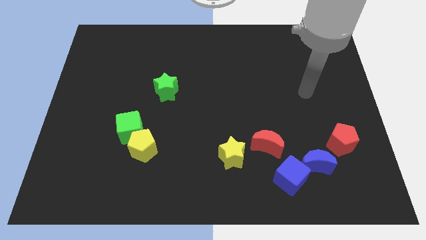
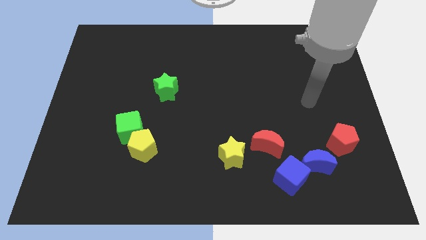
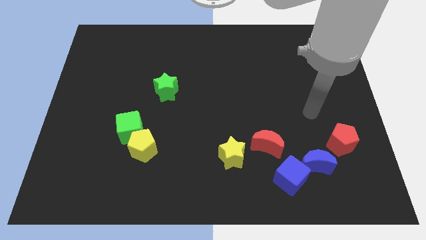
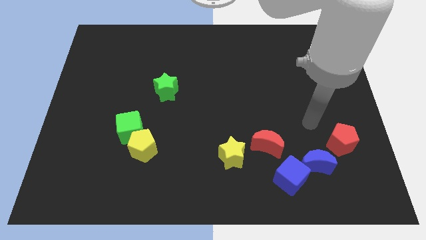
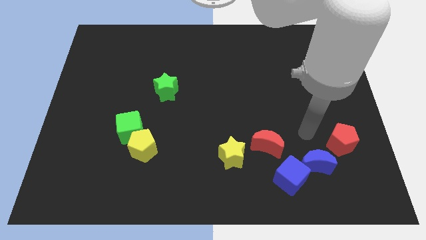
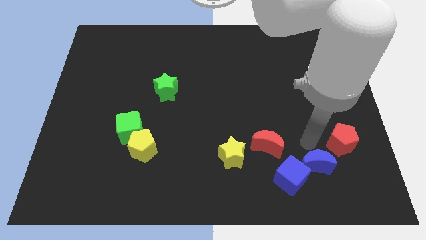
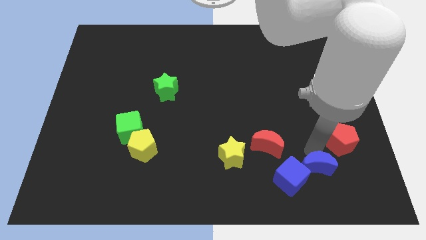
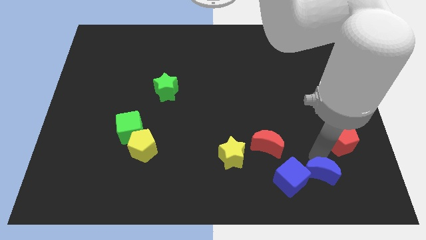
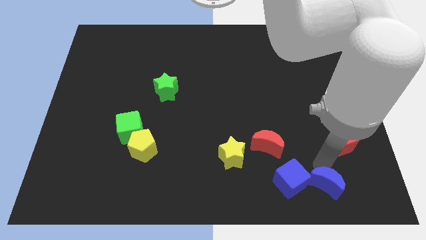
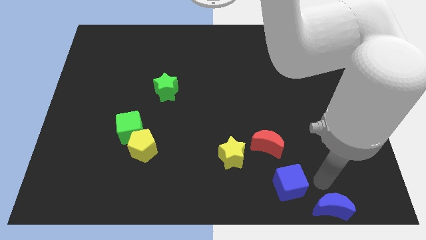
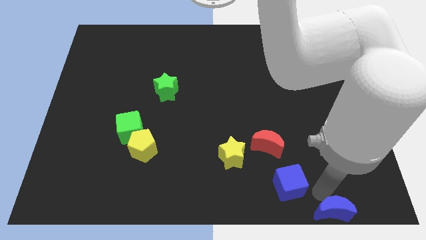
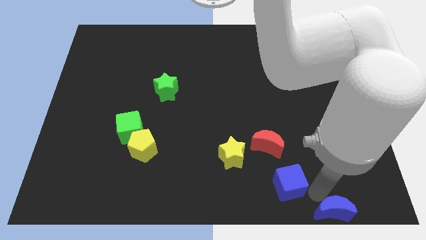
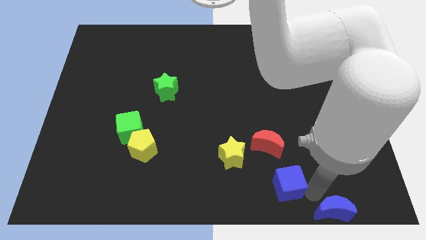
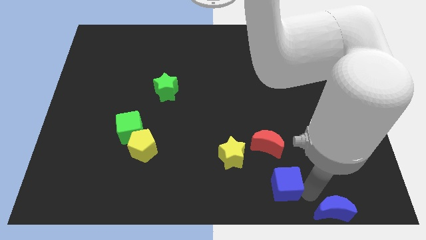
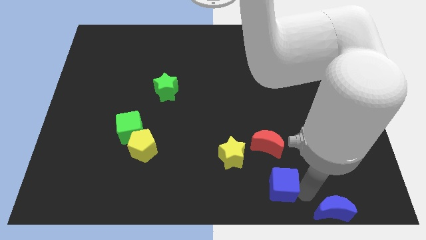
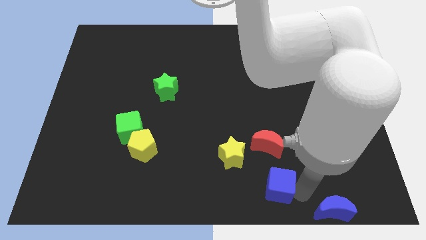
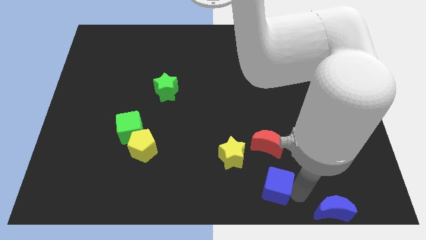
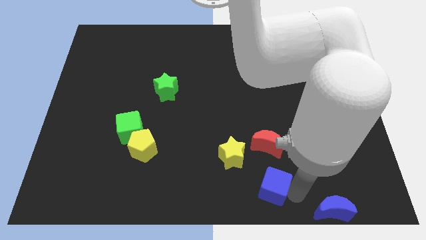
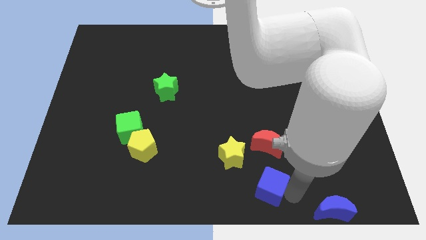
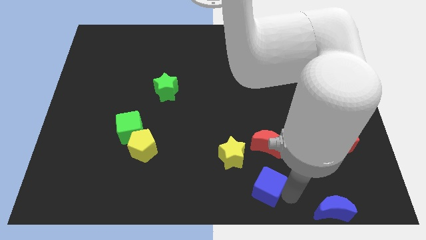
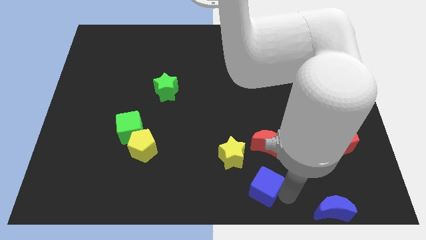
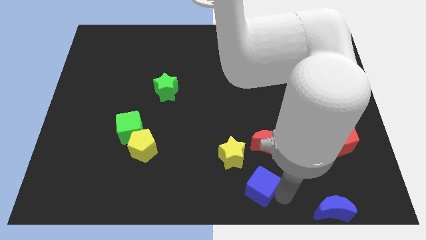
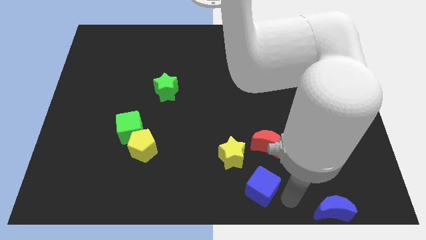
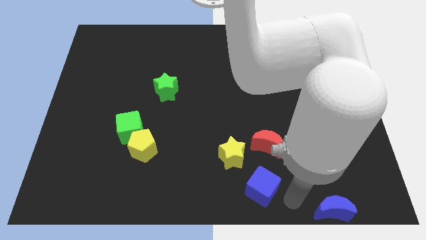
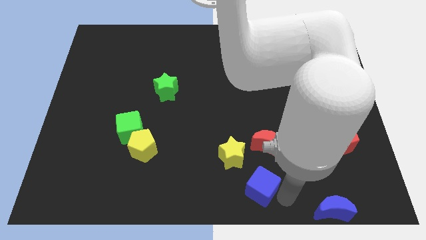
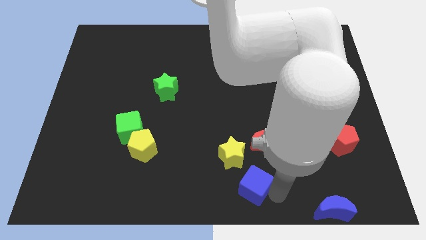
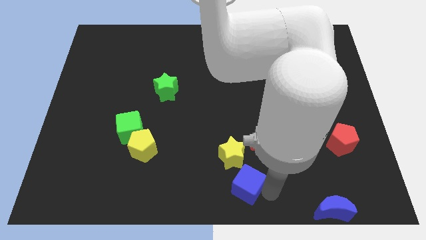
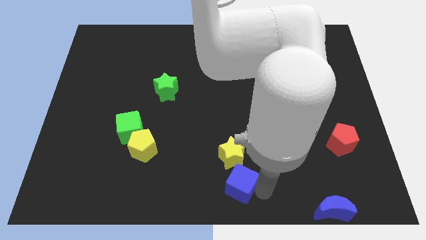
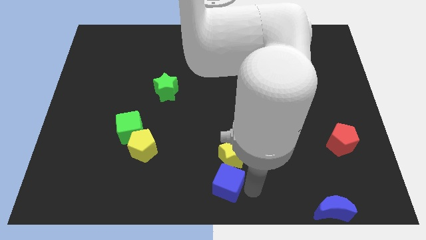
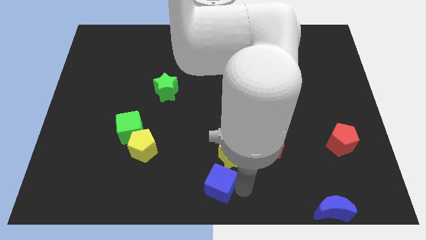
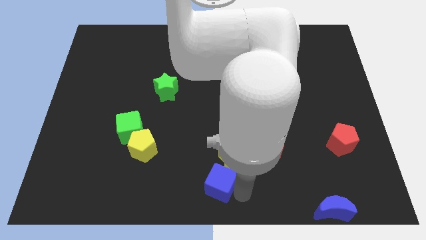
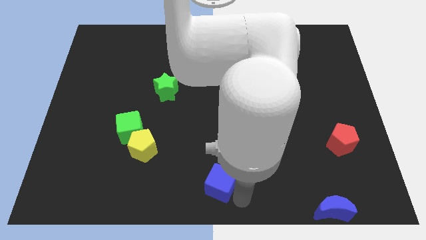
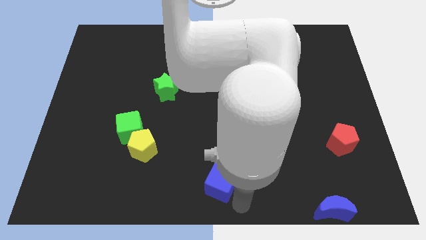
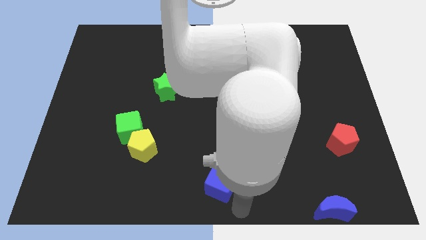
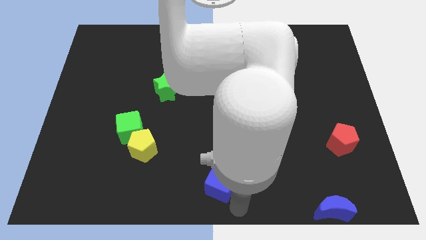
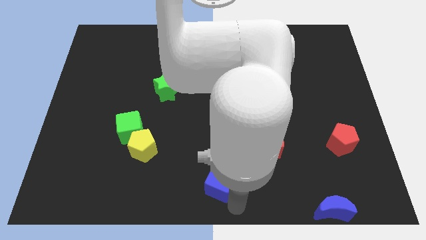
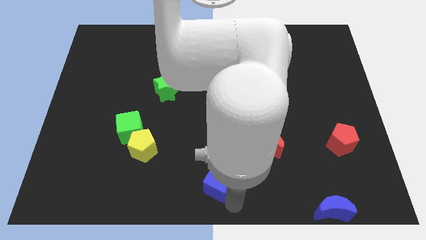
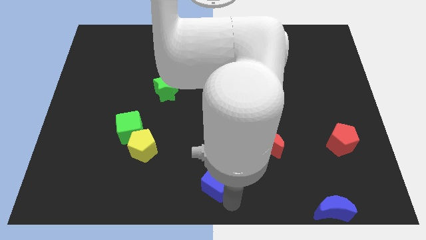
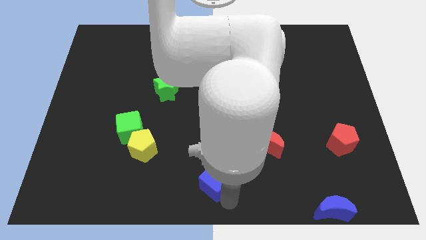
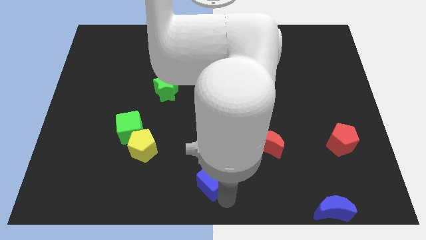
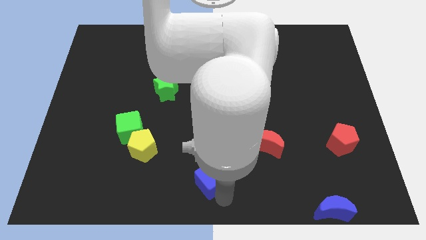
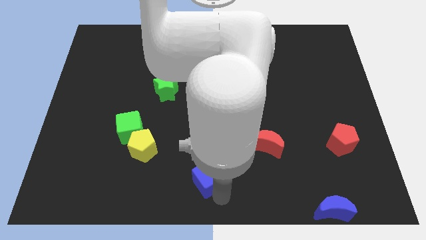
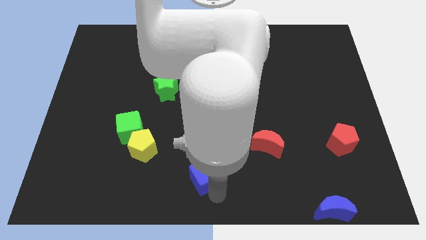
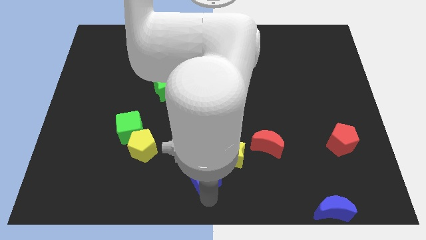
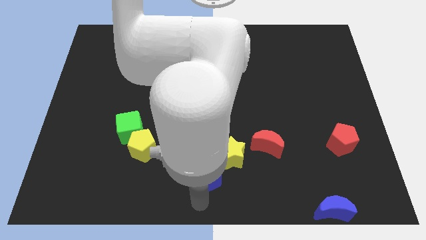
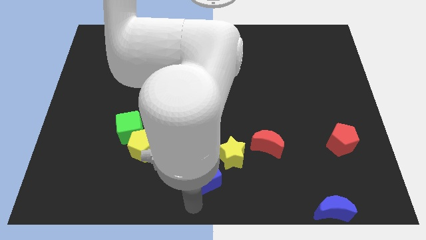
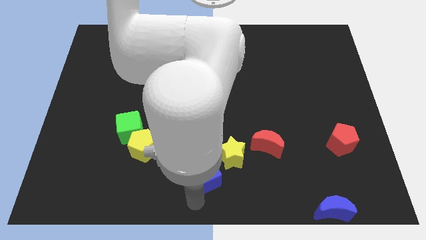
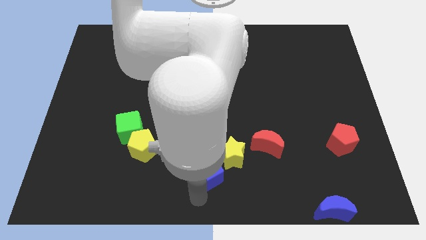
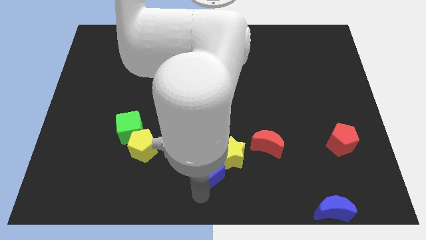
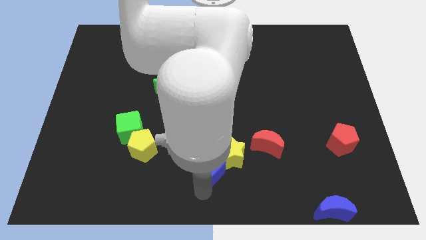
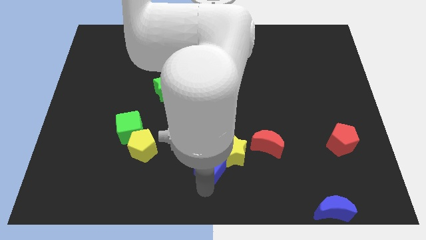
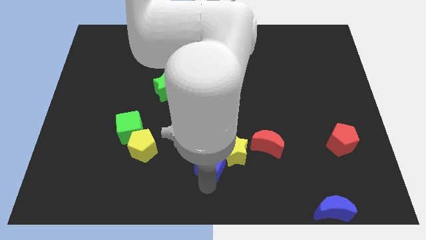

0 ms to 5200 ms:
move the blue cube just left of the red moon

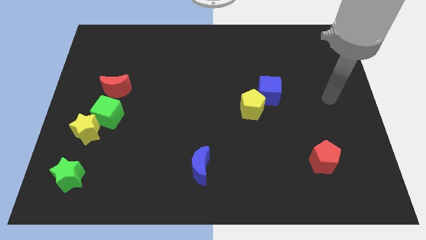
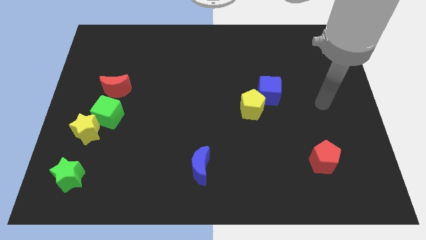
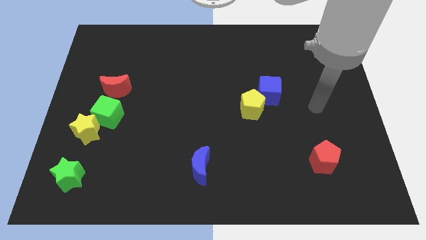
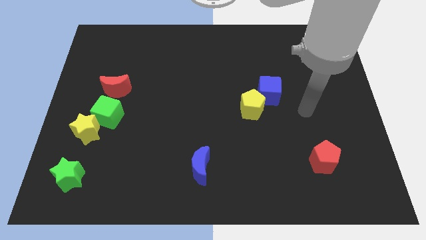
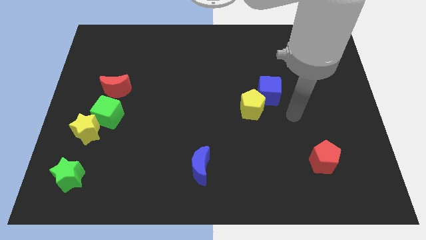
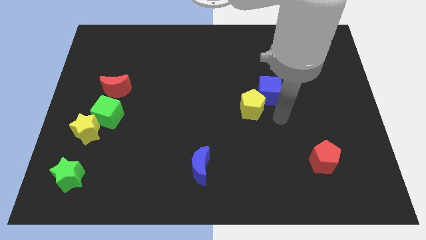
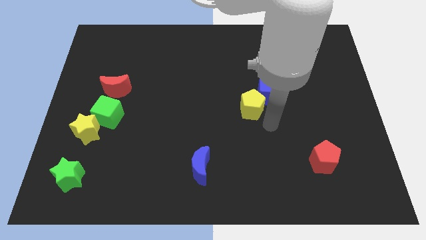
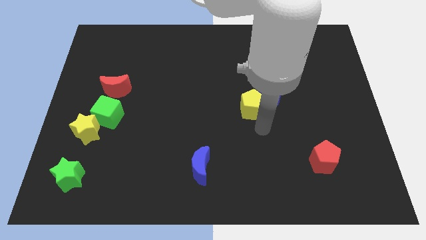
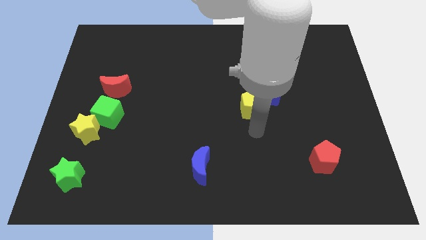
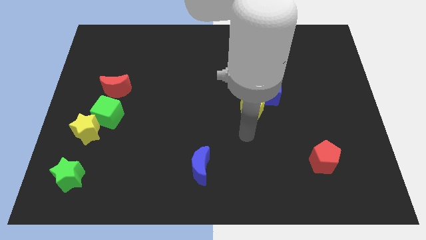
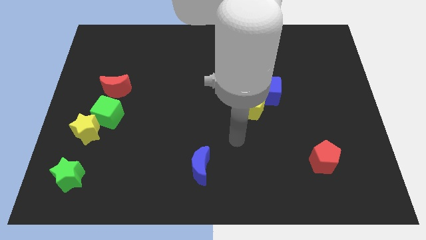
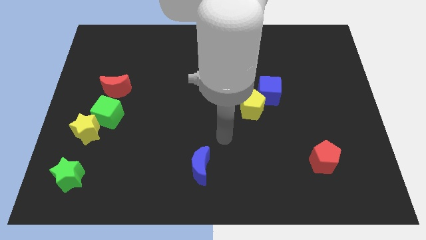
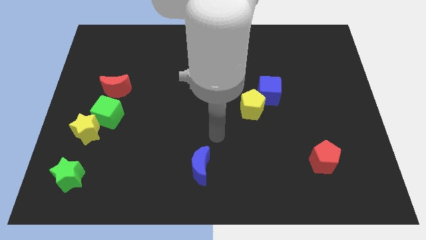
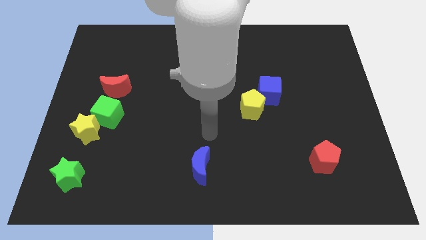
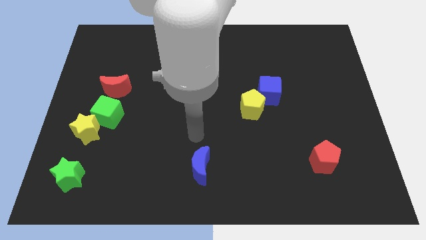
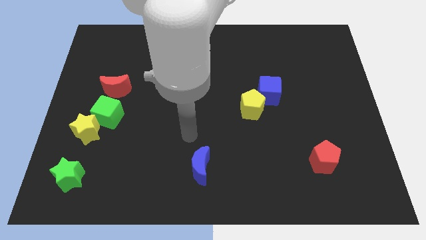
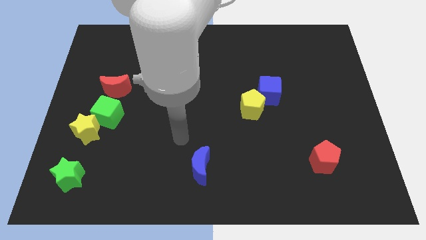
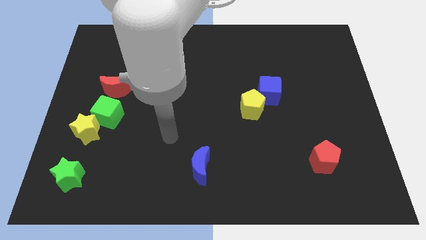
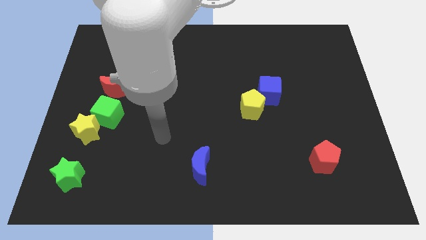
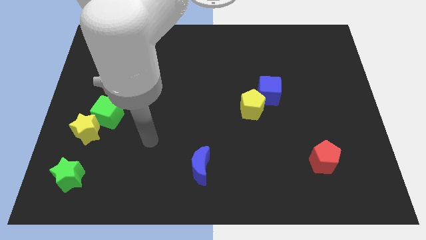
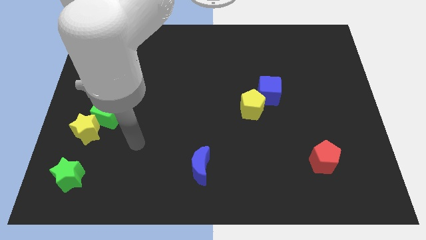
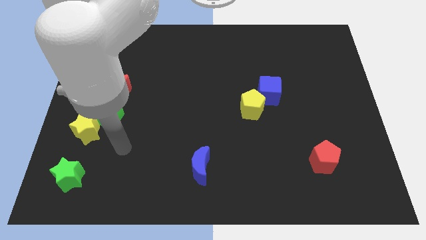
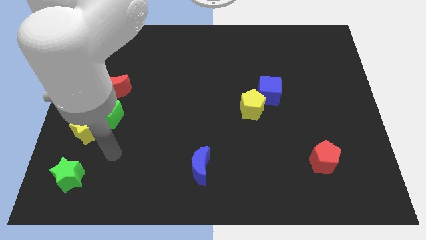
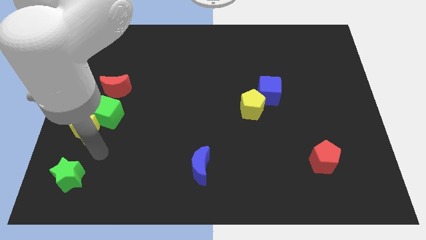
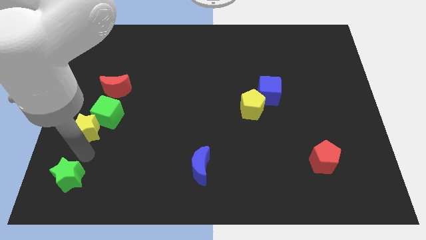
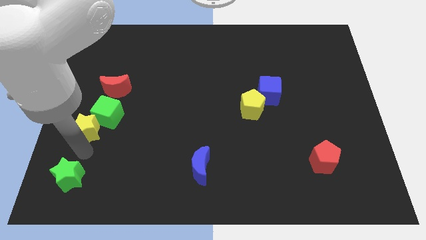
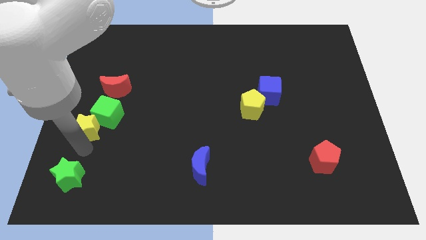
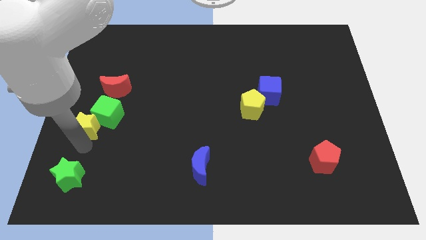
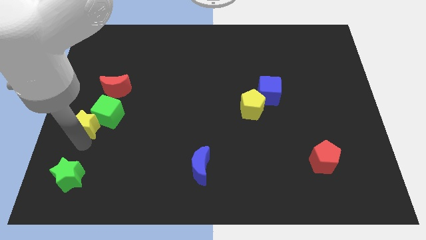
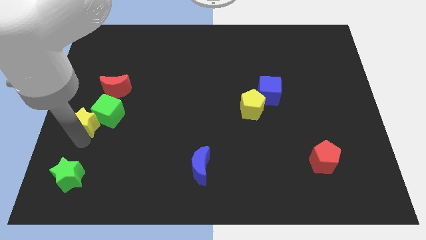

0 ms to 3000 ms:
push the yellow star to the bottom left of the red moon
